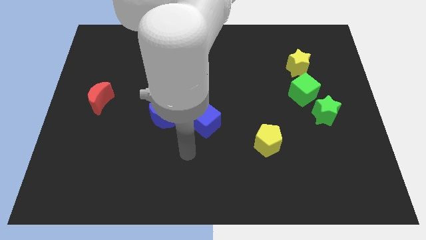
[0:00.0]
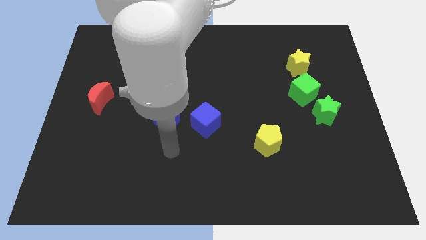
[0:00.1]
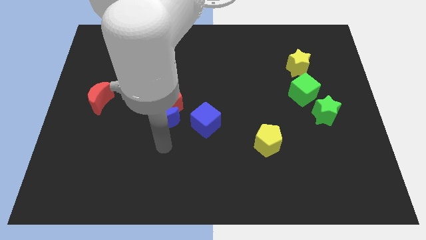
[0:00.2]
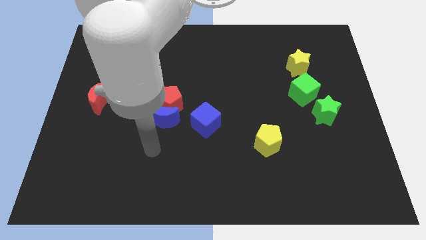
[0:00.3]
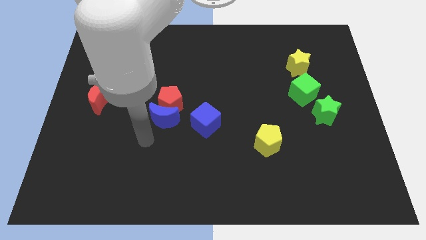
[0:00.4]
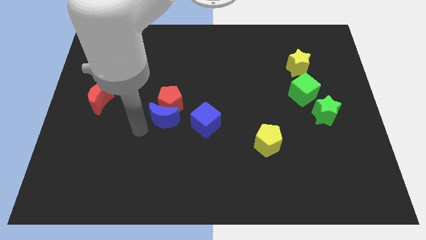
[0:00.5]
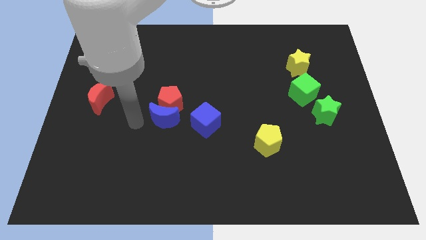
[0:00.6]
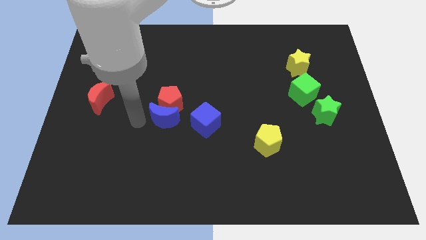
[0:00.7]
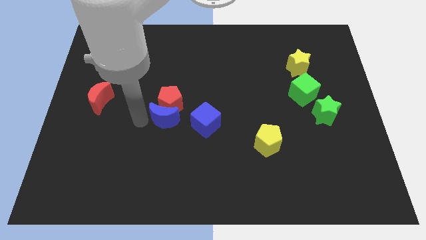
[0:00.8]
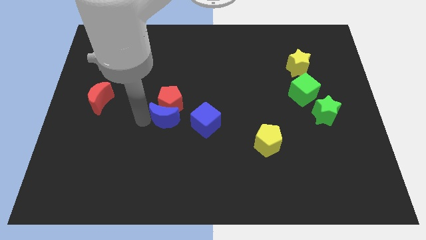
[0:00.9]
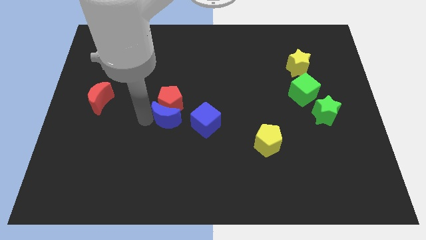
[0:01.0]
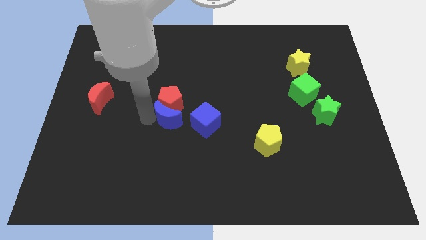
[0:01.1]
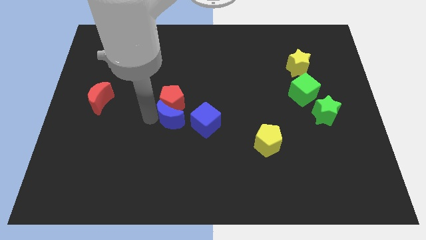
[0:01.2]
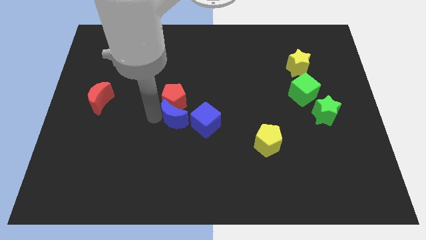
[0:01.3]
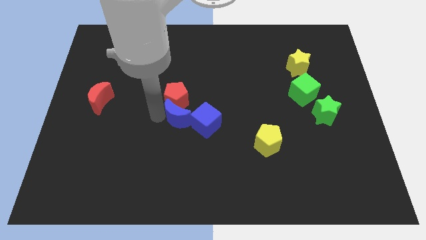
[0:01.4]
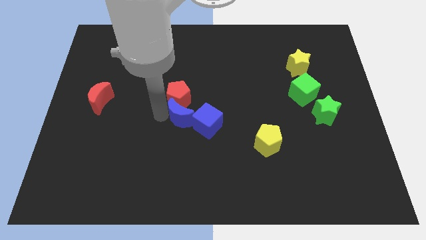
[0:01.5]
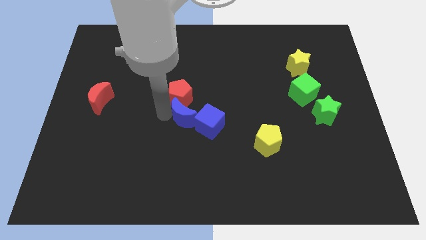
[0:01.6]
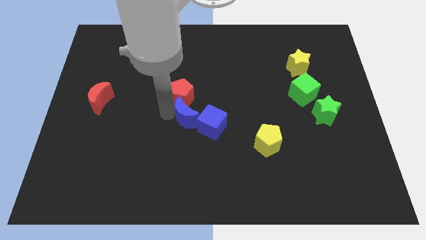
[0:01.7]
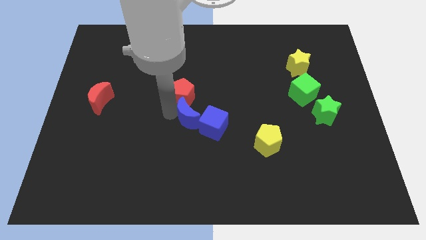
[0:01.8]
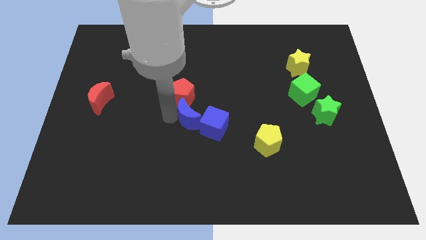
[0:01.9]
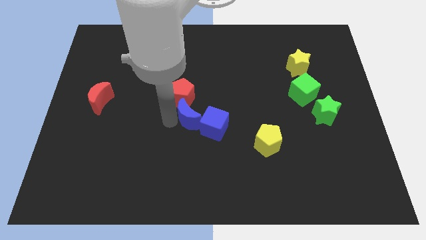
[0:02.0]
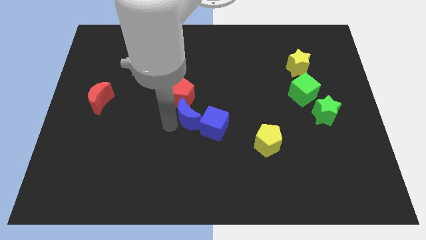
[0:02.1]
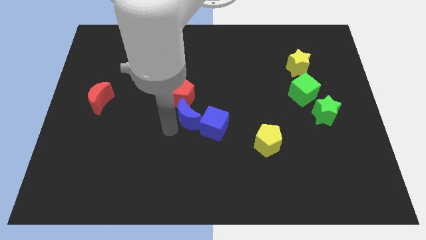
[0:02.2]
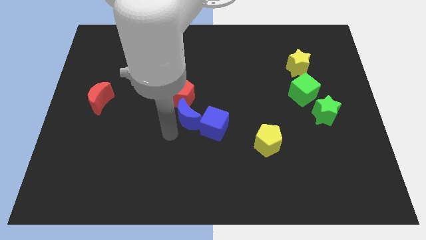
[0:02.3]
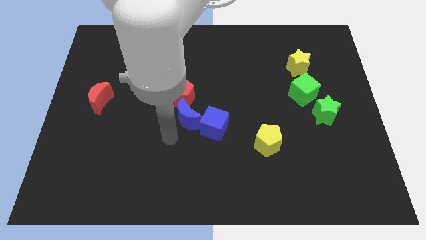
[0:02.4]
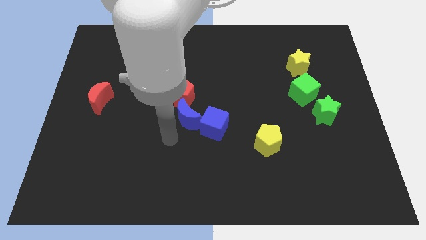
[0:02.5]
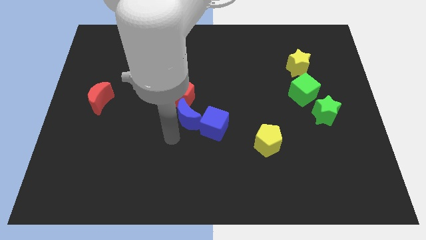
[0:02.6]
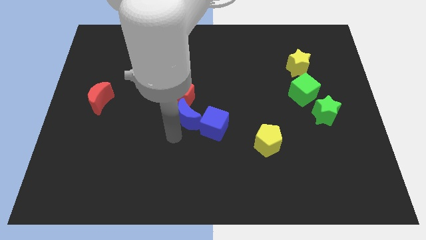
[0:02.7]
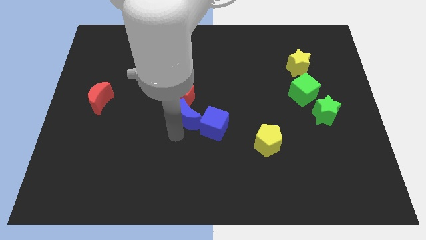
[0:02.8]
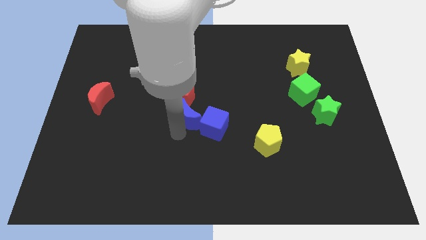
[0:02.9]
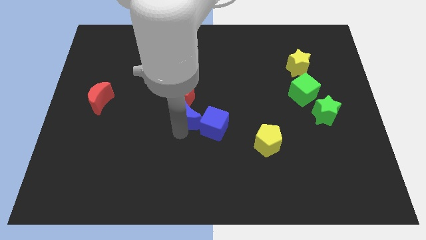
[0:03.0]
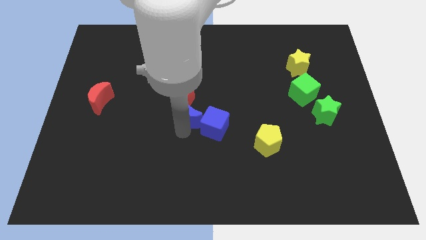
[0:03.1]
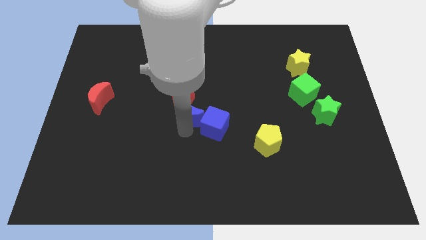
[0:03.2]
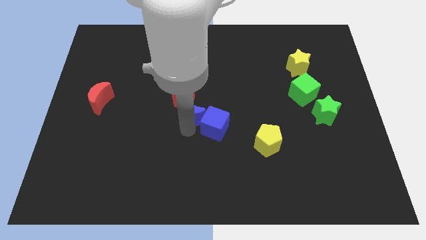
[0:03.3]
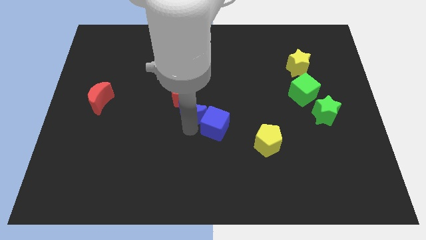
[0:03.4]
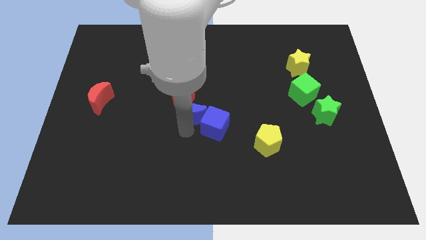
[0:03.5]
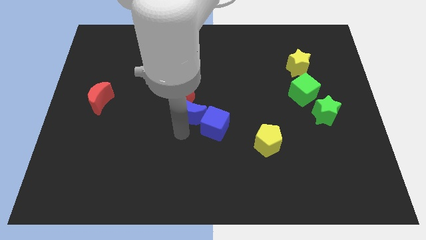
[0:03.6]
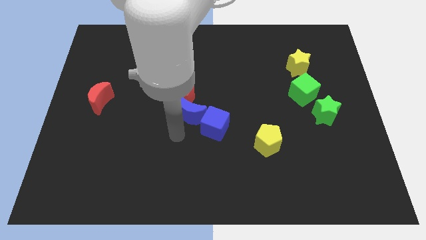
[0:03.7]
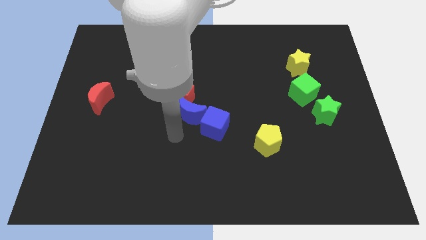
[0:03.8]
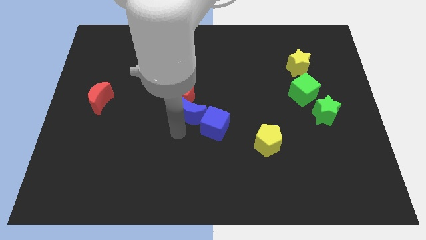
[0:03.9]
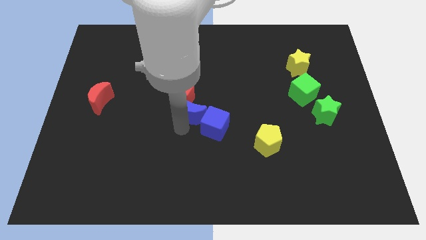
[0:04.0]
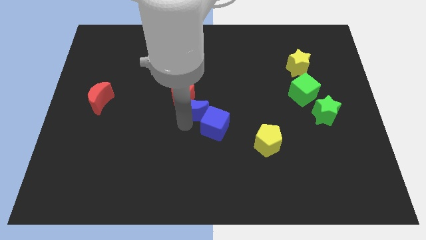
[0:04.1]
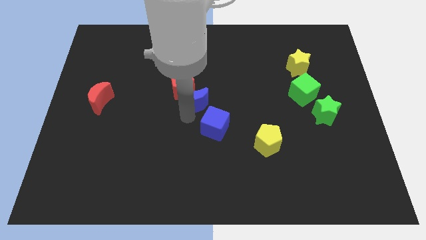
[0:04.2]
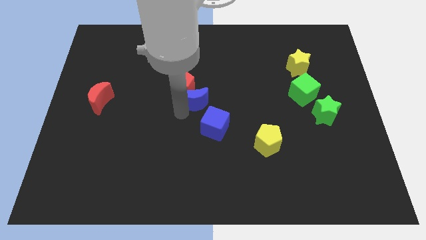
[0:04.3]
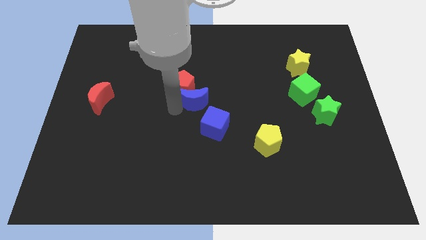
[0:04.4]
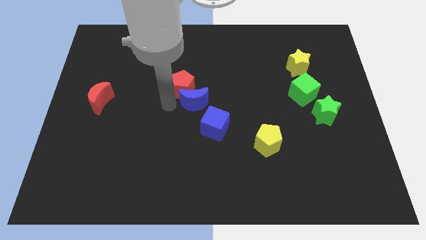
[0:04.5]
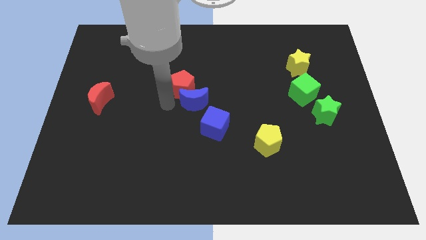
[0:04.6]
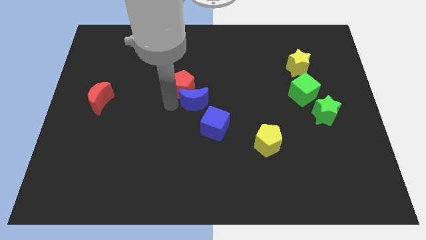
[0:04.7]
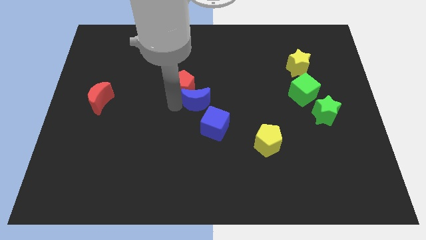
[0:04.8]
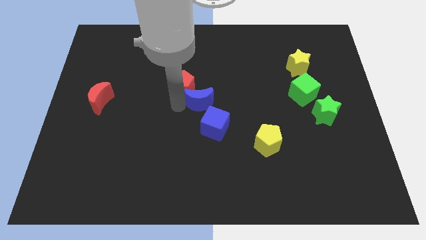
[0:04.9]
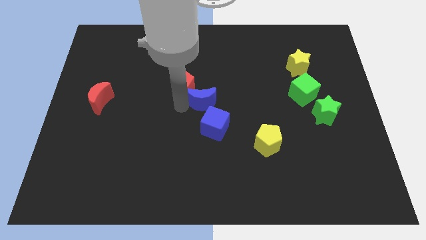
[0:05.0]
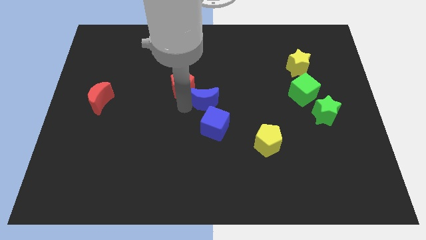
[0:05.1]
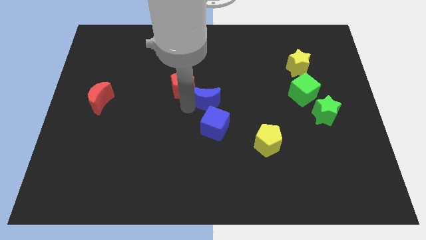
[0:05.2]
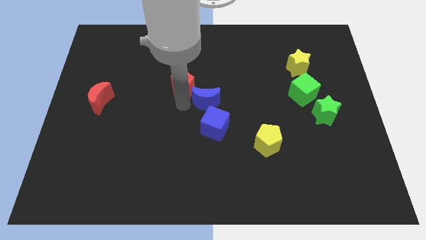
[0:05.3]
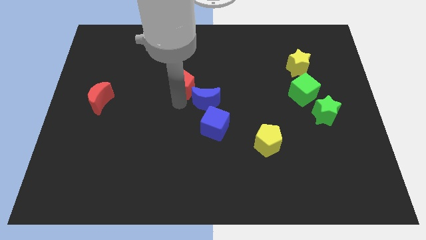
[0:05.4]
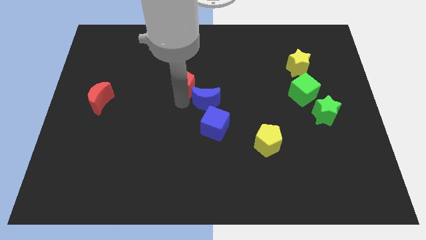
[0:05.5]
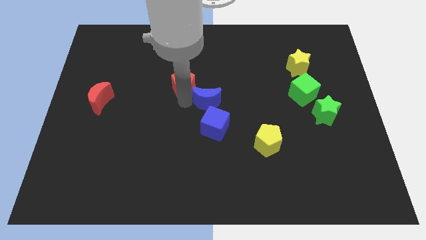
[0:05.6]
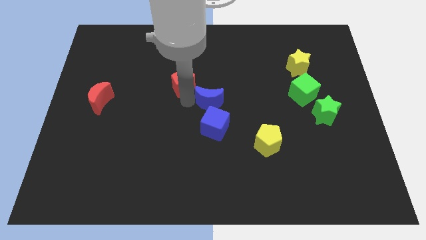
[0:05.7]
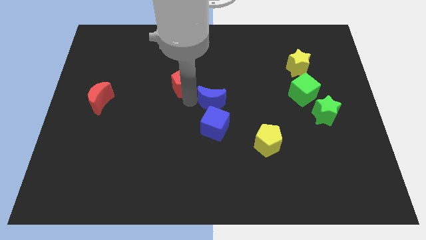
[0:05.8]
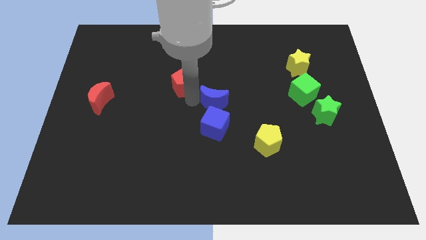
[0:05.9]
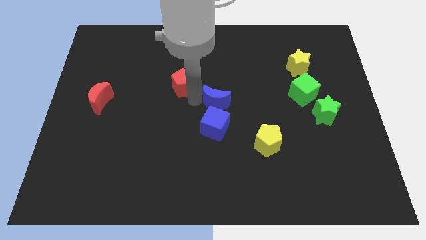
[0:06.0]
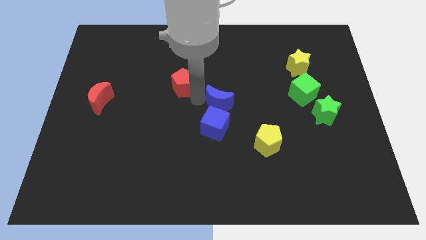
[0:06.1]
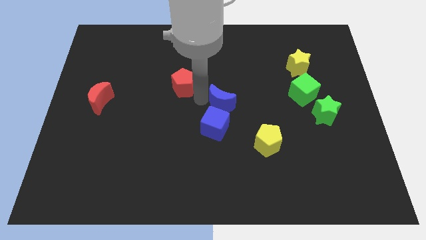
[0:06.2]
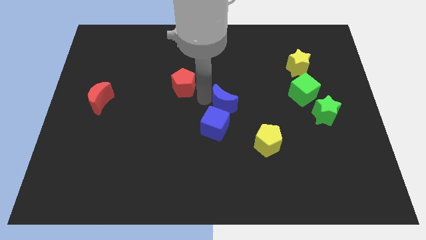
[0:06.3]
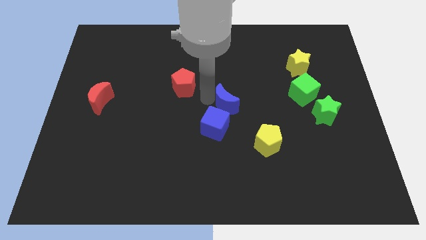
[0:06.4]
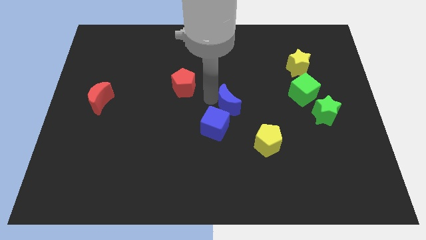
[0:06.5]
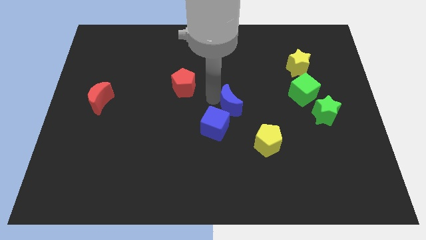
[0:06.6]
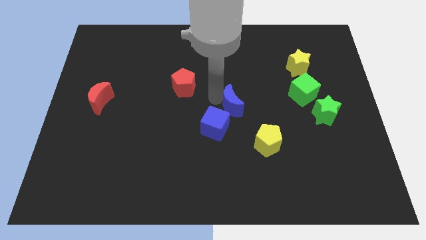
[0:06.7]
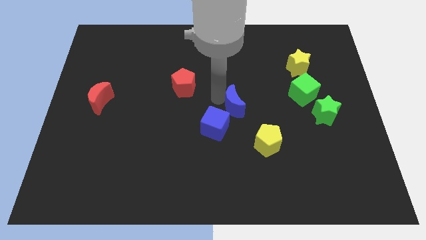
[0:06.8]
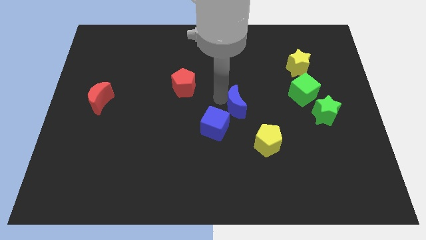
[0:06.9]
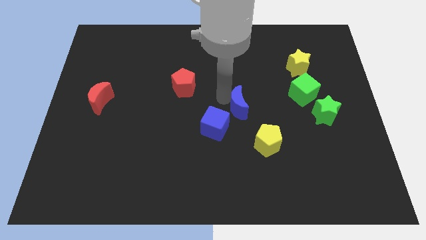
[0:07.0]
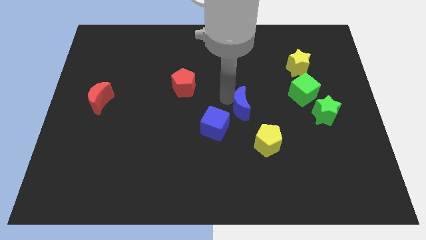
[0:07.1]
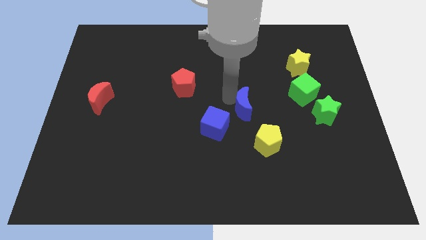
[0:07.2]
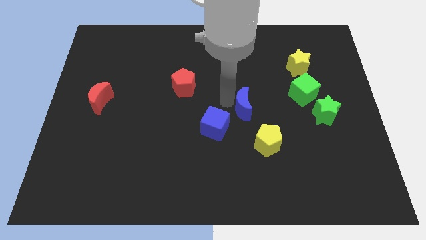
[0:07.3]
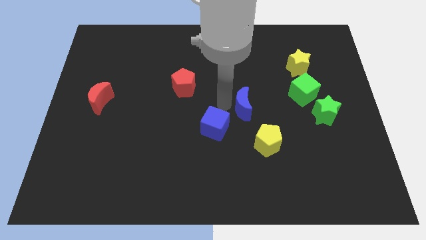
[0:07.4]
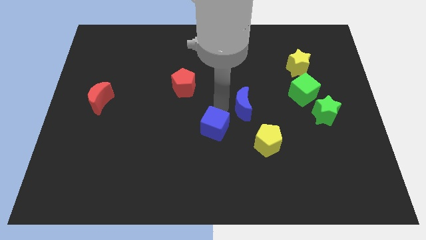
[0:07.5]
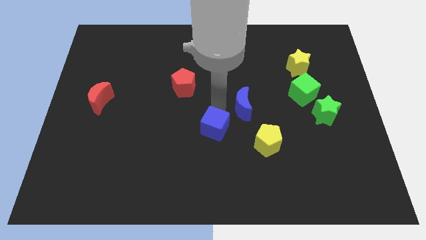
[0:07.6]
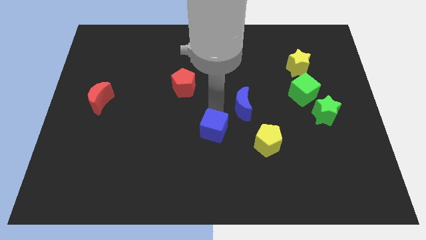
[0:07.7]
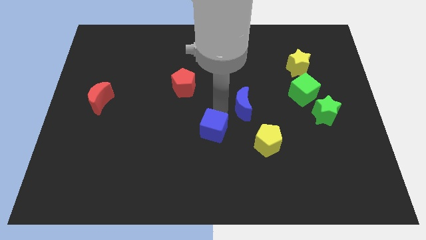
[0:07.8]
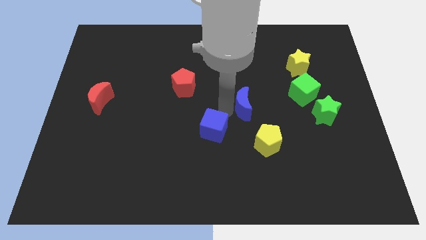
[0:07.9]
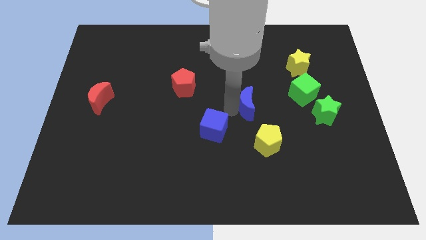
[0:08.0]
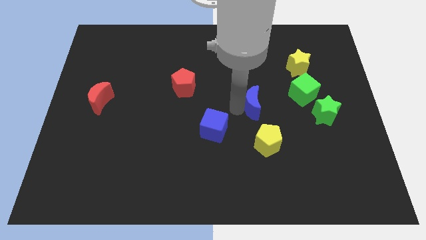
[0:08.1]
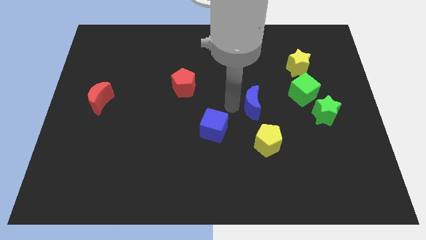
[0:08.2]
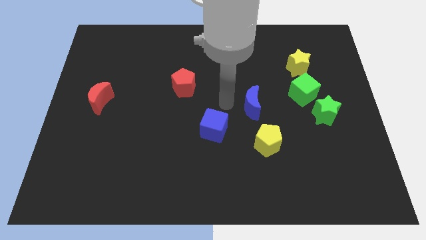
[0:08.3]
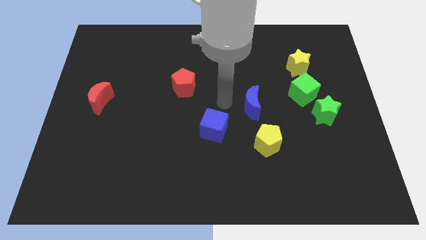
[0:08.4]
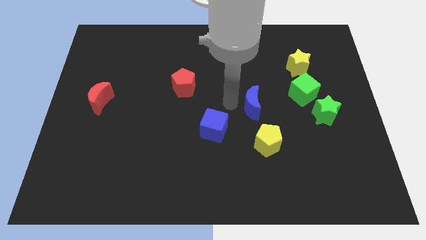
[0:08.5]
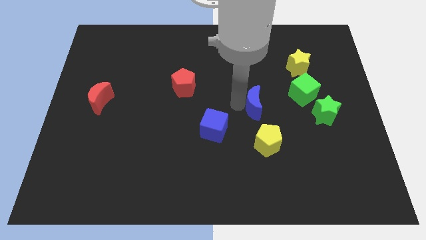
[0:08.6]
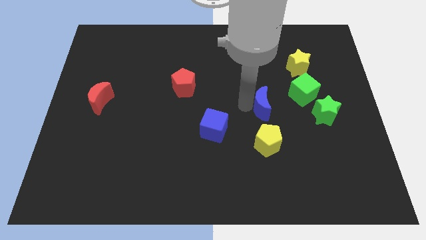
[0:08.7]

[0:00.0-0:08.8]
put the blue moon to the bottom left of the green cube
